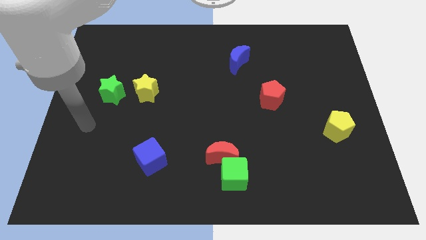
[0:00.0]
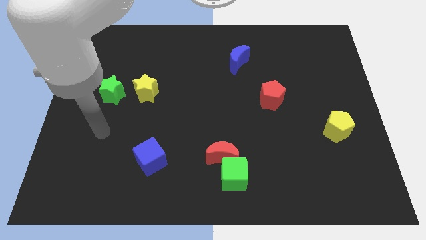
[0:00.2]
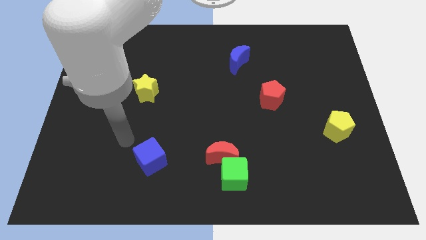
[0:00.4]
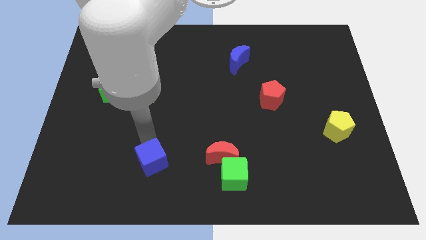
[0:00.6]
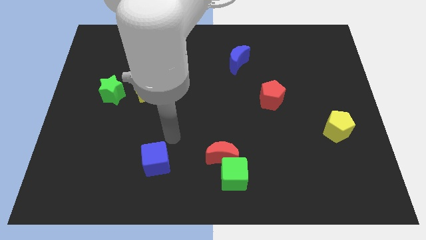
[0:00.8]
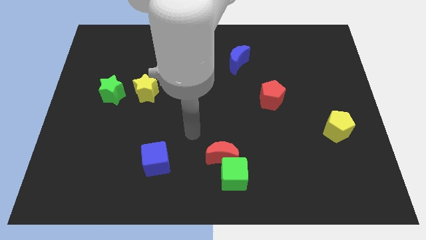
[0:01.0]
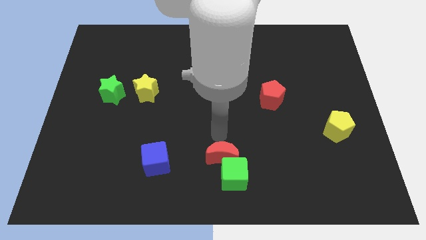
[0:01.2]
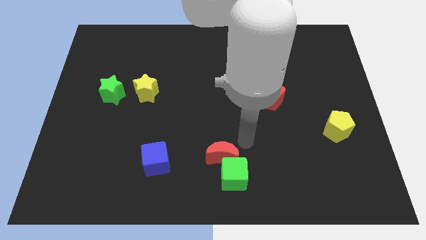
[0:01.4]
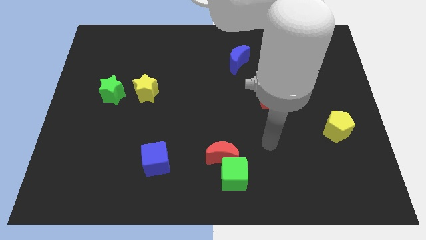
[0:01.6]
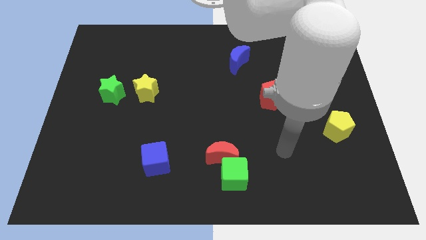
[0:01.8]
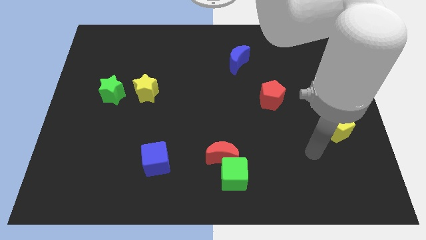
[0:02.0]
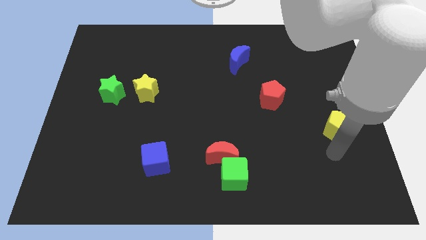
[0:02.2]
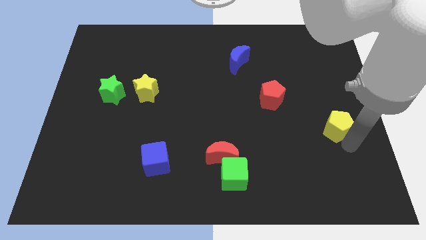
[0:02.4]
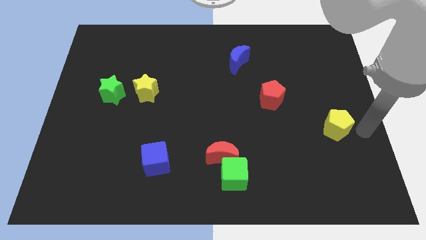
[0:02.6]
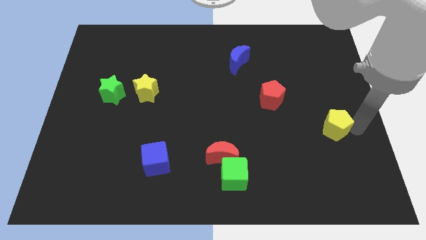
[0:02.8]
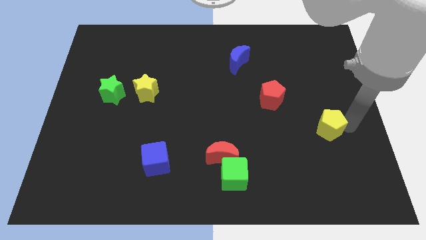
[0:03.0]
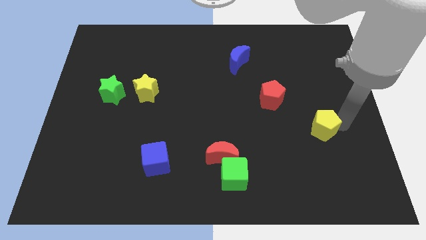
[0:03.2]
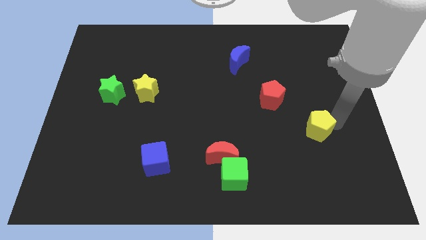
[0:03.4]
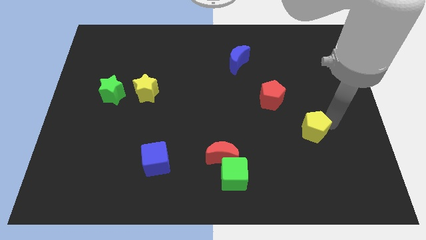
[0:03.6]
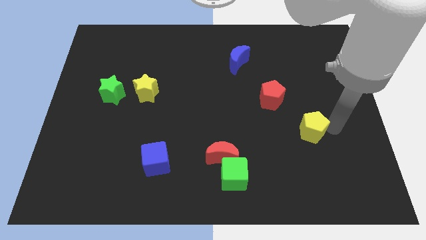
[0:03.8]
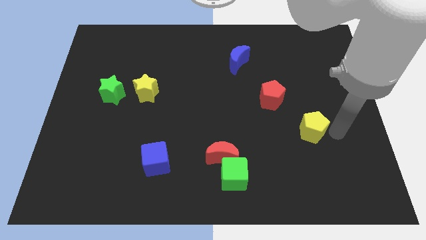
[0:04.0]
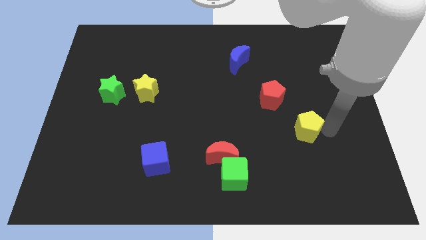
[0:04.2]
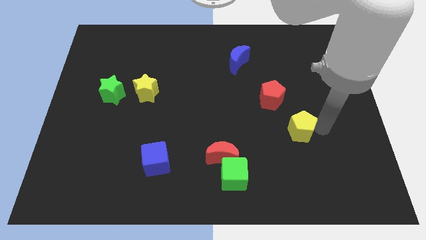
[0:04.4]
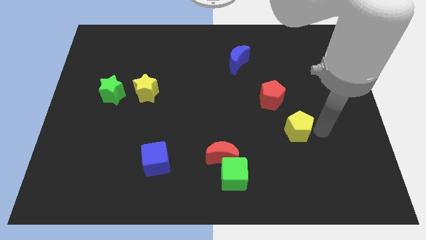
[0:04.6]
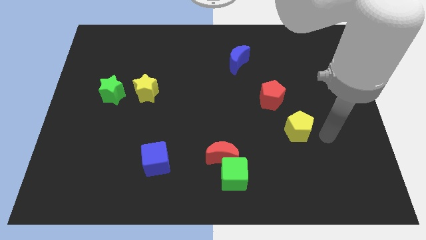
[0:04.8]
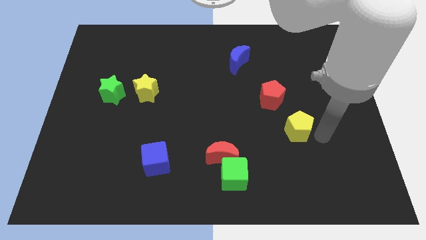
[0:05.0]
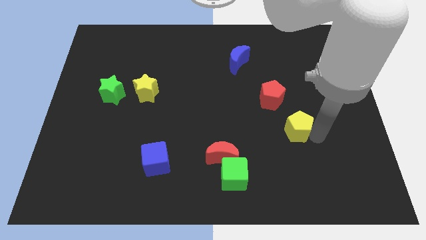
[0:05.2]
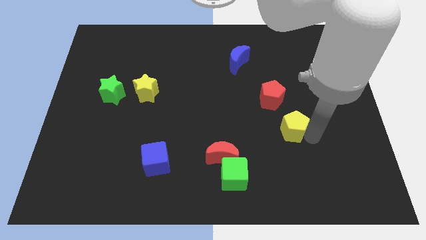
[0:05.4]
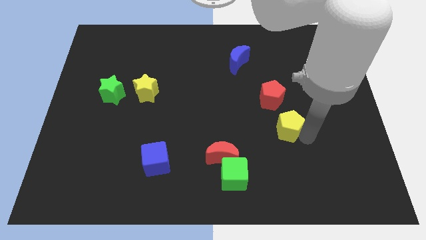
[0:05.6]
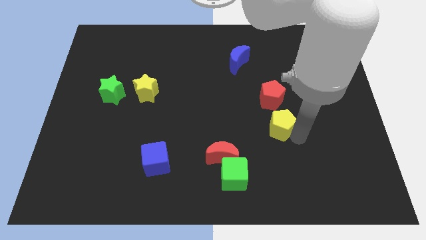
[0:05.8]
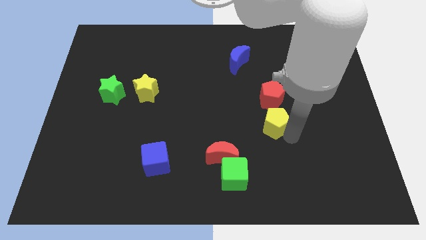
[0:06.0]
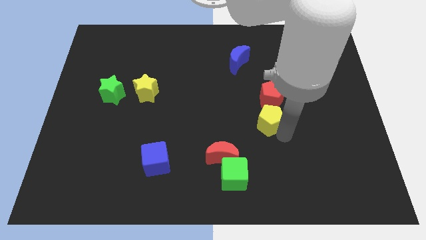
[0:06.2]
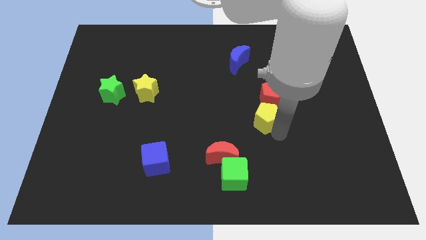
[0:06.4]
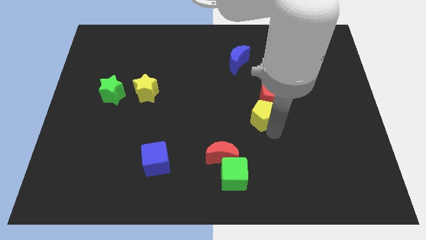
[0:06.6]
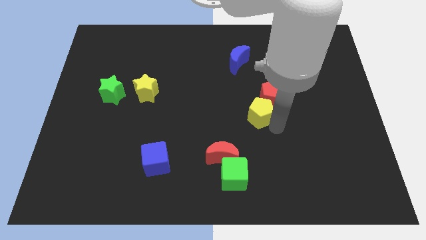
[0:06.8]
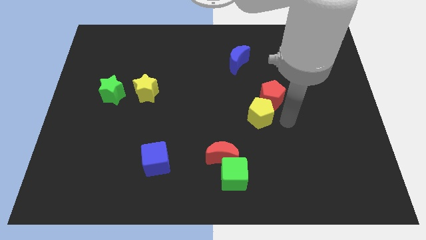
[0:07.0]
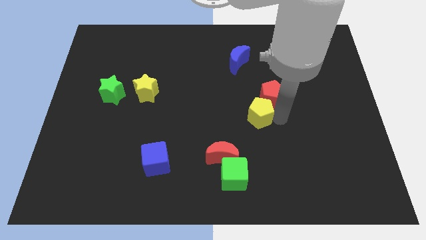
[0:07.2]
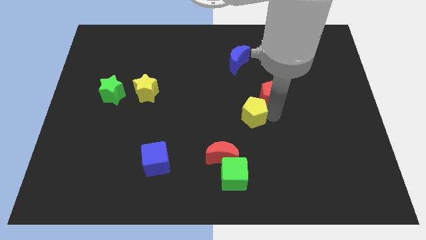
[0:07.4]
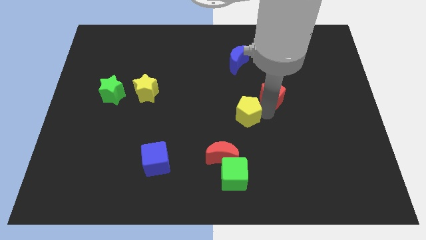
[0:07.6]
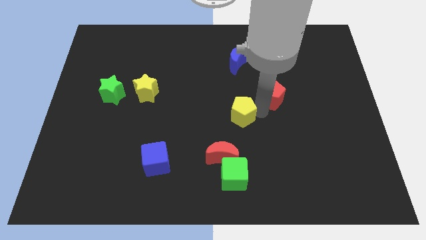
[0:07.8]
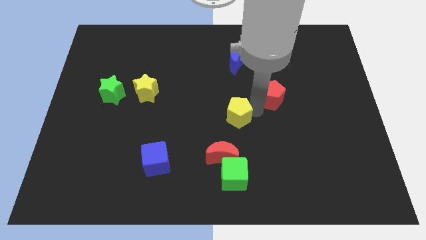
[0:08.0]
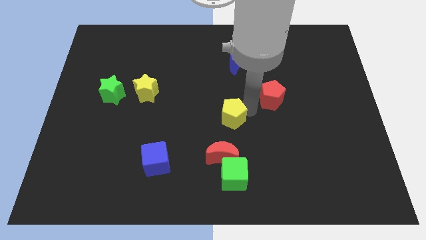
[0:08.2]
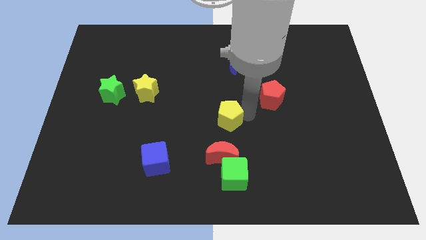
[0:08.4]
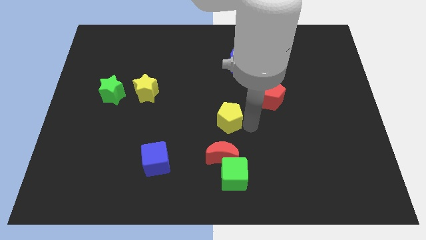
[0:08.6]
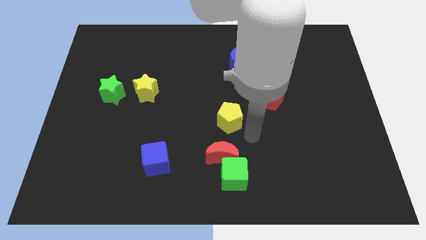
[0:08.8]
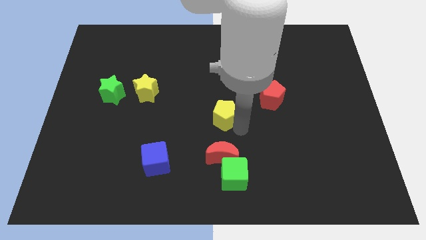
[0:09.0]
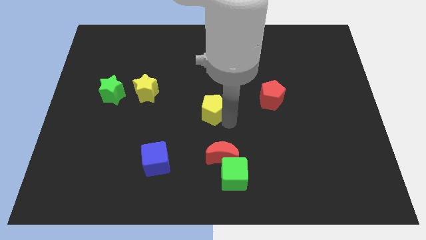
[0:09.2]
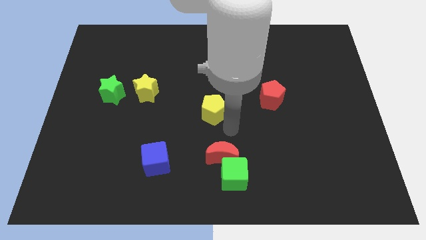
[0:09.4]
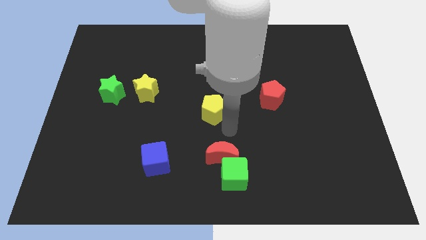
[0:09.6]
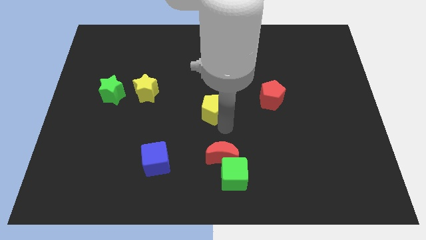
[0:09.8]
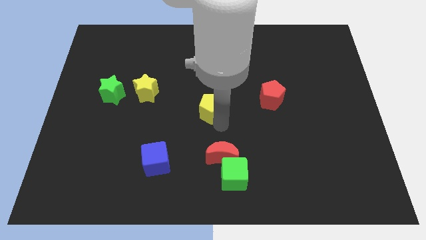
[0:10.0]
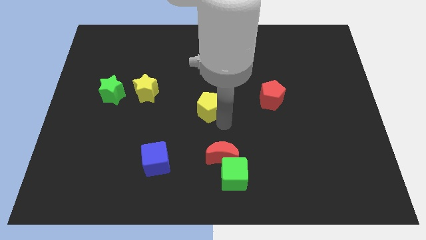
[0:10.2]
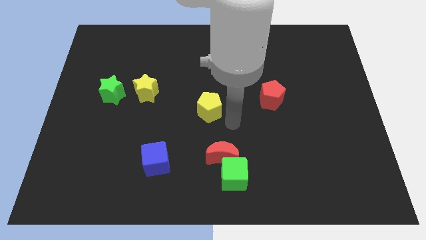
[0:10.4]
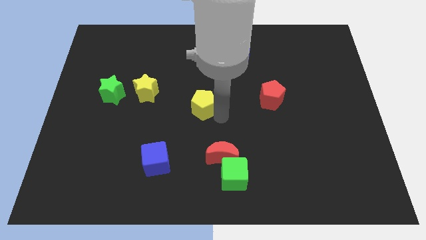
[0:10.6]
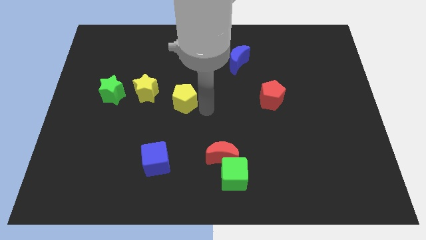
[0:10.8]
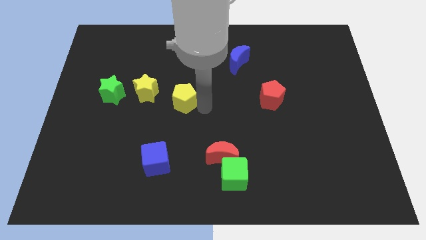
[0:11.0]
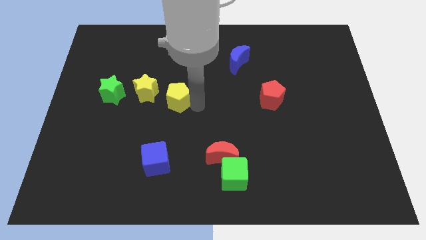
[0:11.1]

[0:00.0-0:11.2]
push the yellow pentagon just right of the green star

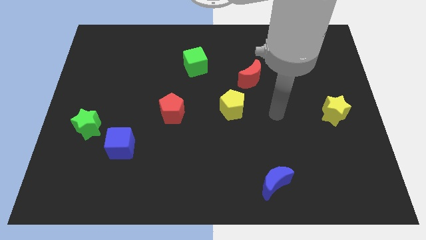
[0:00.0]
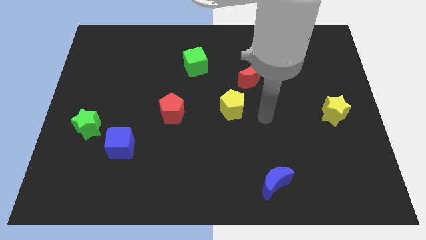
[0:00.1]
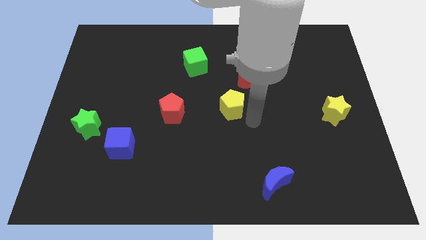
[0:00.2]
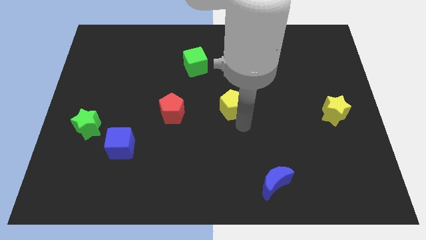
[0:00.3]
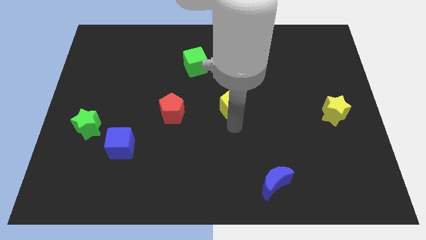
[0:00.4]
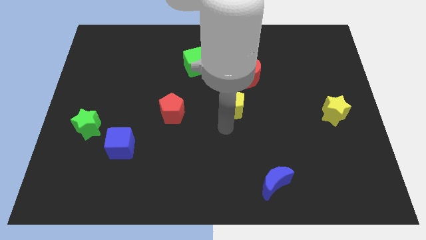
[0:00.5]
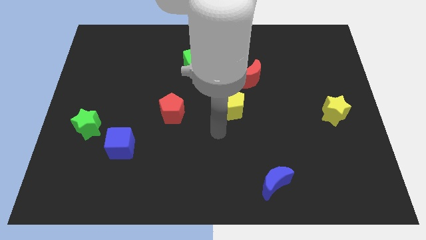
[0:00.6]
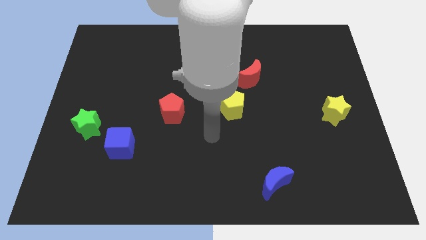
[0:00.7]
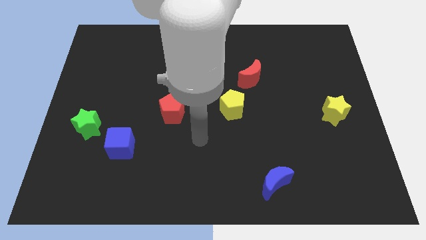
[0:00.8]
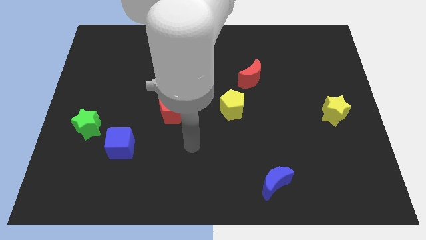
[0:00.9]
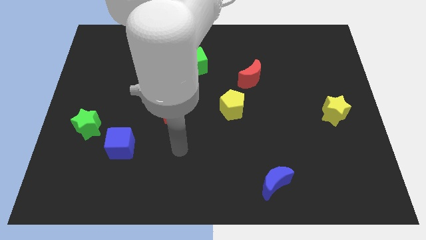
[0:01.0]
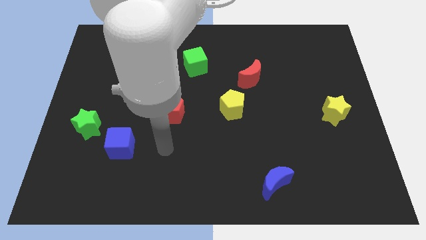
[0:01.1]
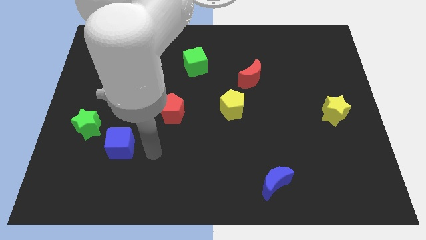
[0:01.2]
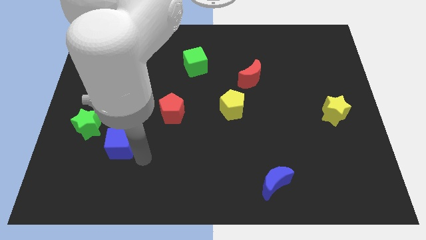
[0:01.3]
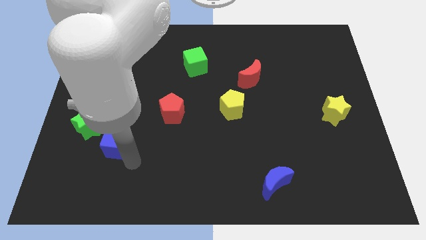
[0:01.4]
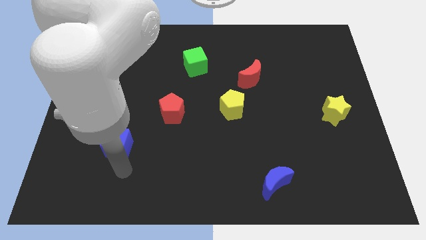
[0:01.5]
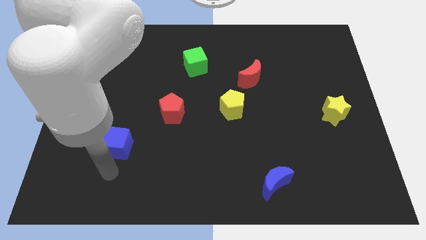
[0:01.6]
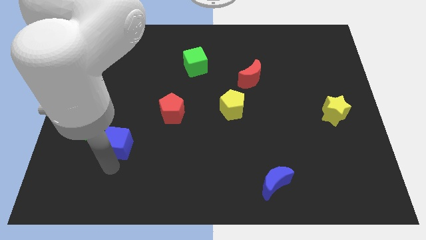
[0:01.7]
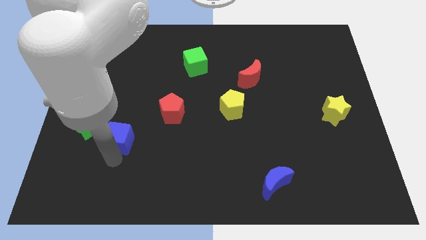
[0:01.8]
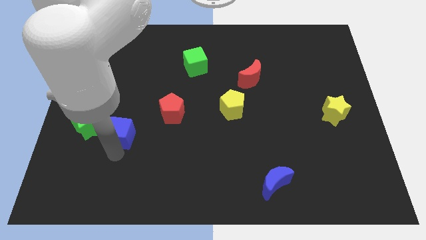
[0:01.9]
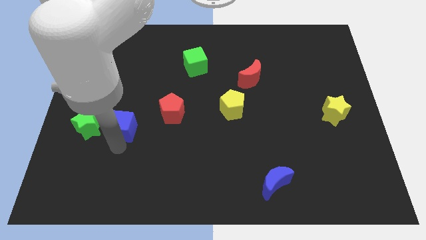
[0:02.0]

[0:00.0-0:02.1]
slide the blue cube to the left of the red pentagon
